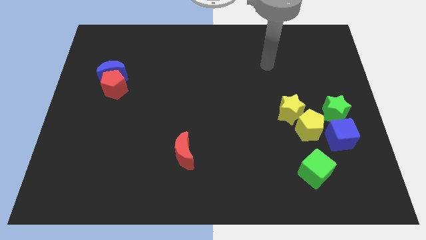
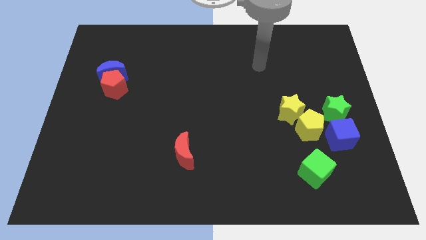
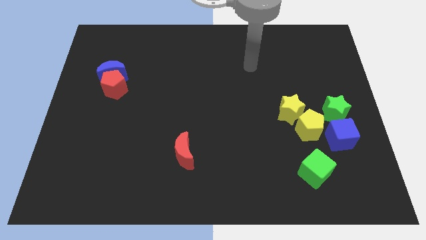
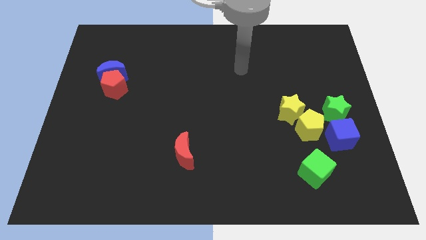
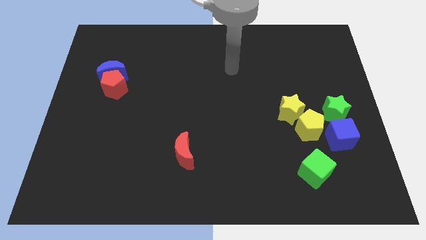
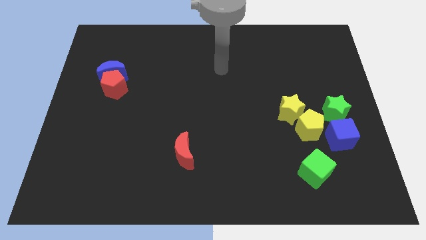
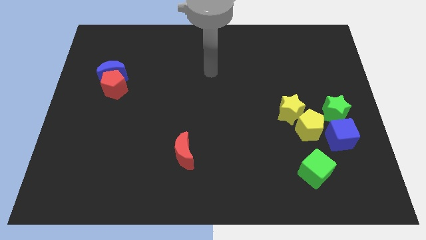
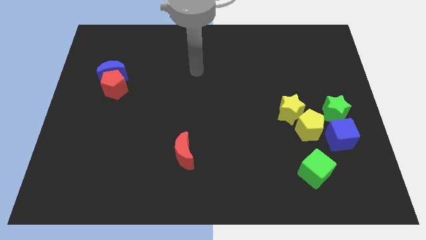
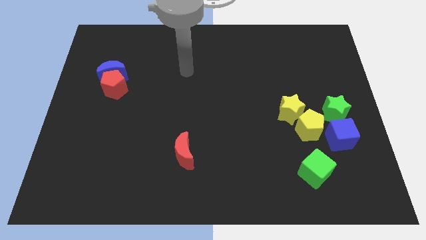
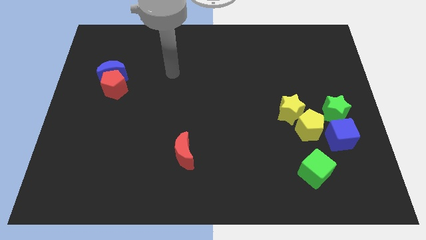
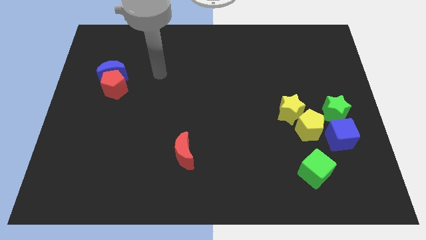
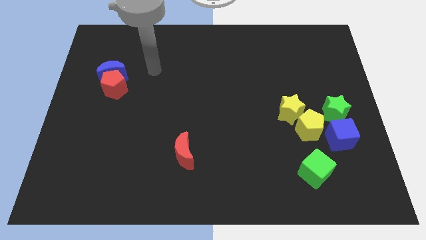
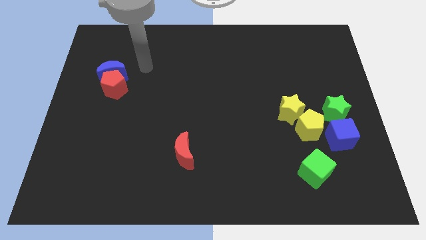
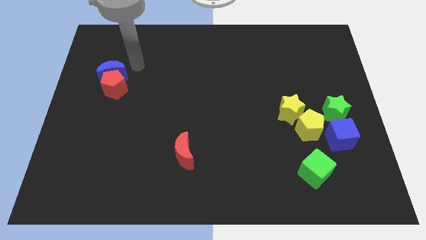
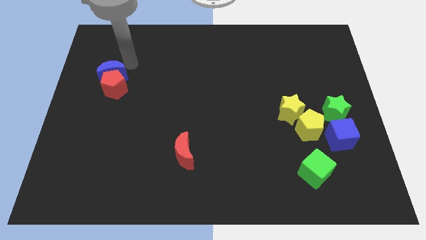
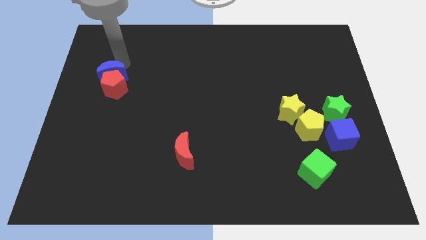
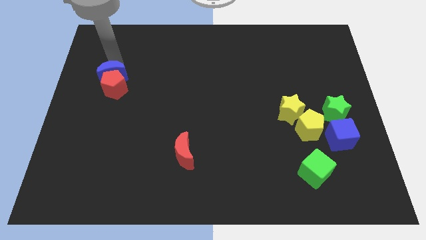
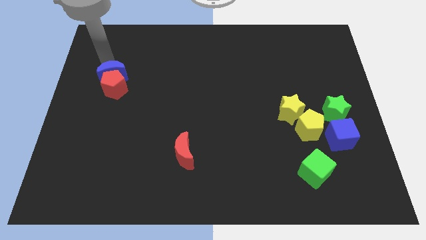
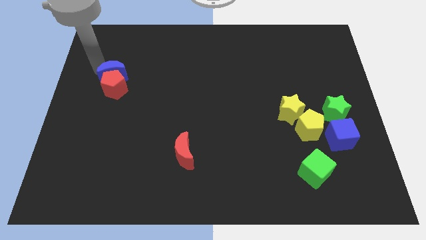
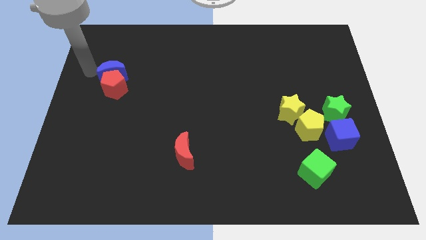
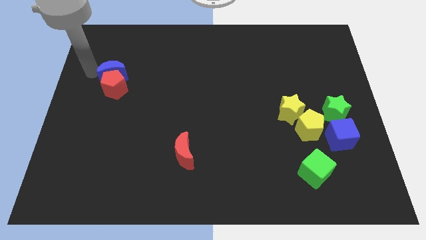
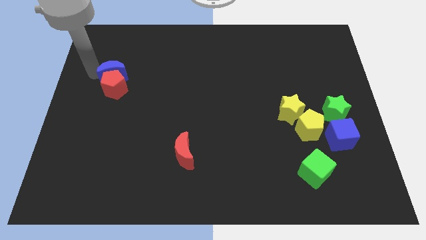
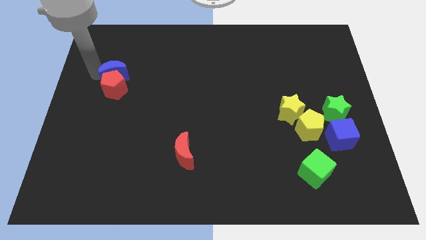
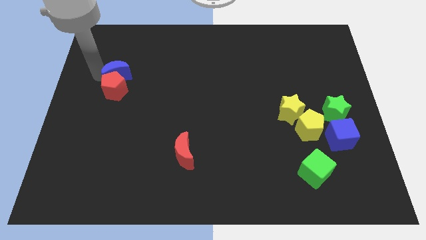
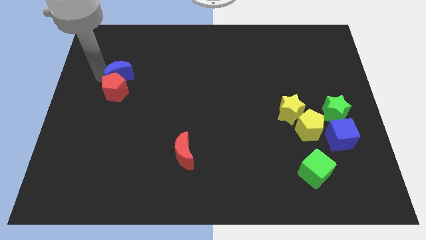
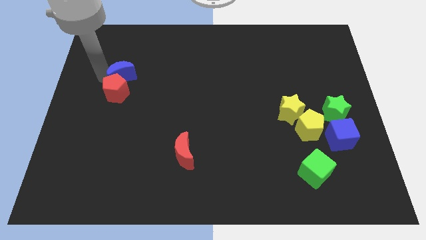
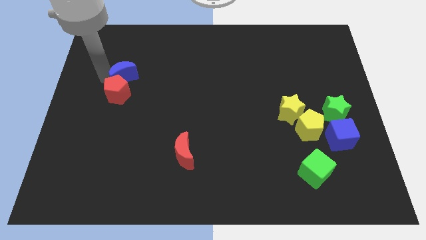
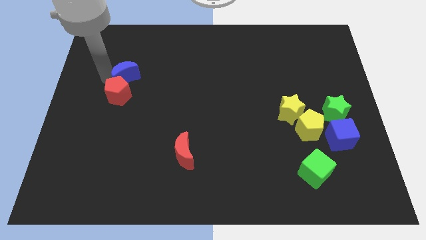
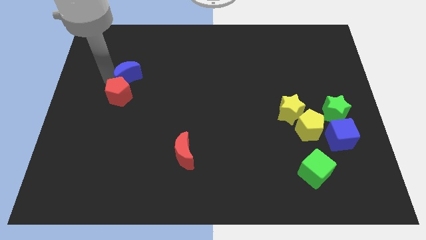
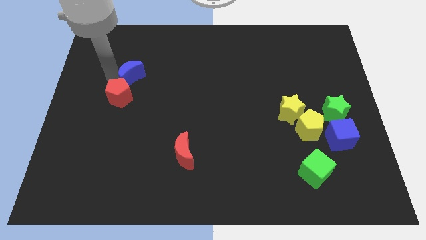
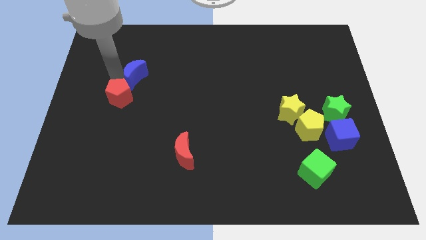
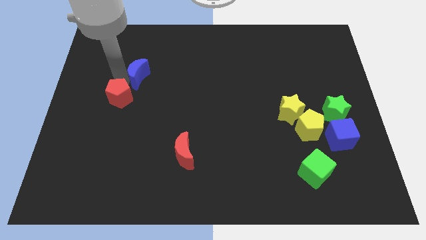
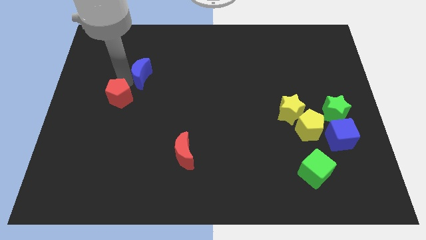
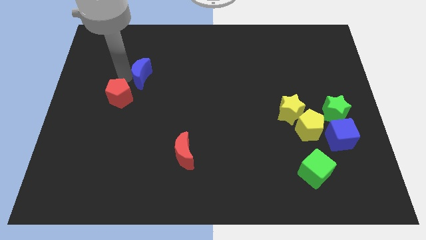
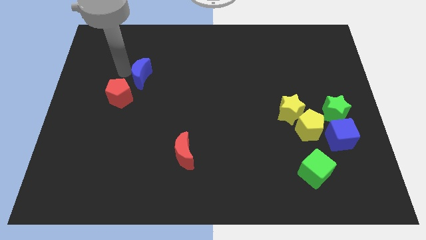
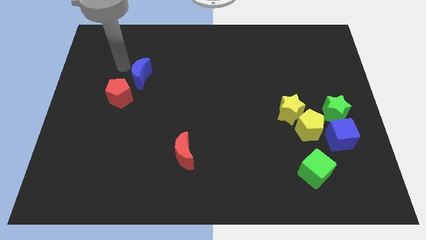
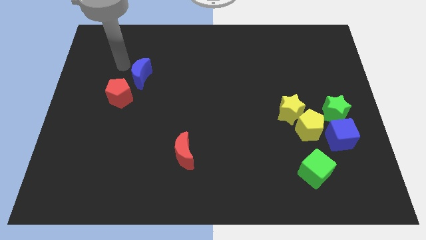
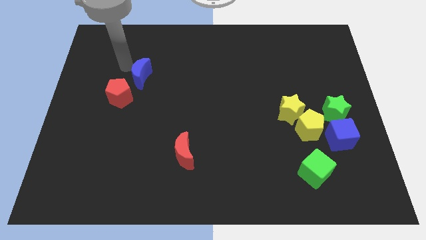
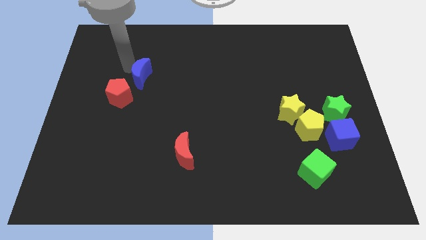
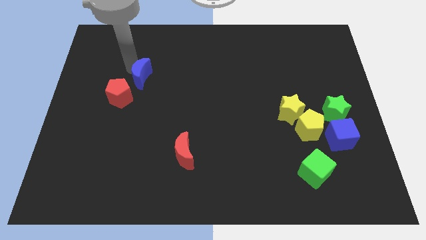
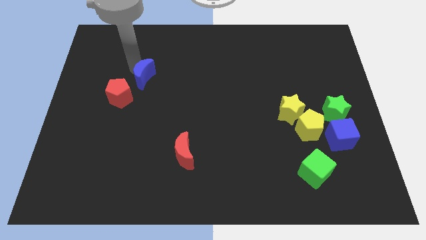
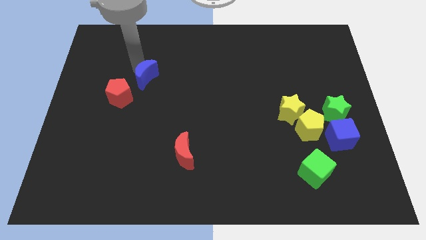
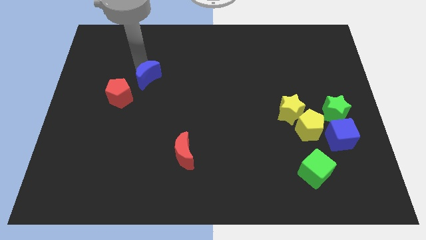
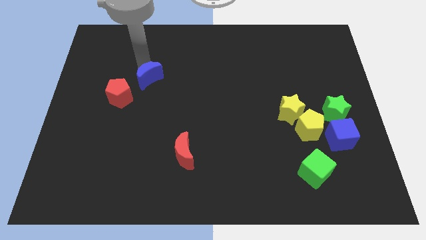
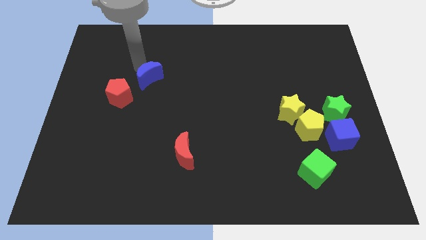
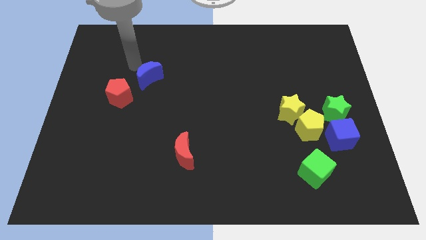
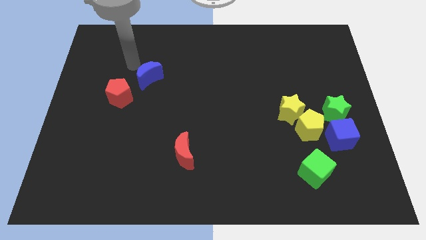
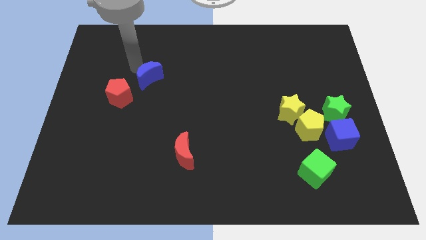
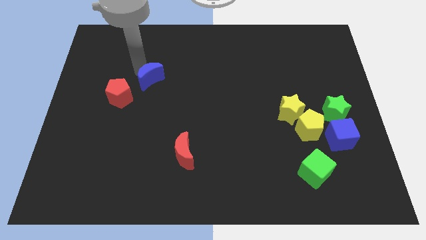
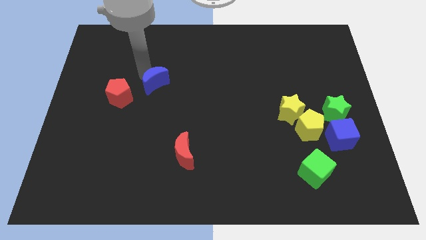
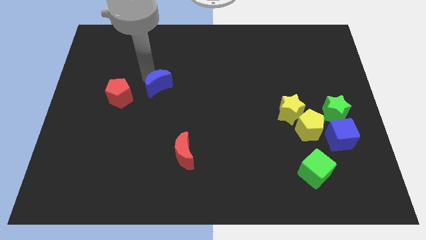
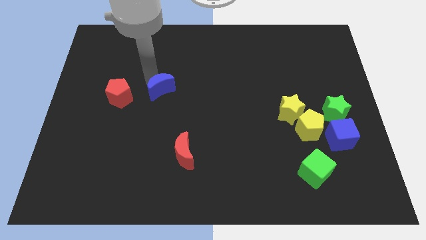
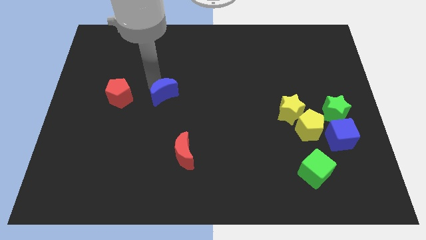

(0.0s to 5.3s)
push the blue moon to the middle of the board

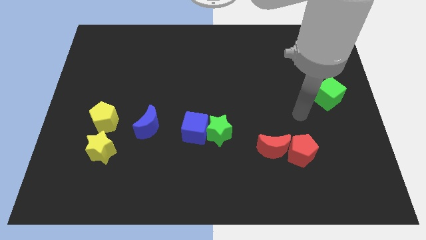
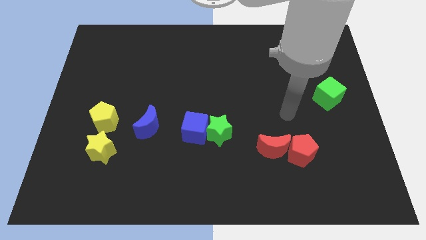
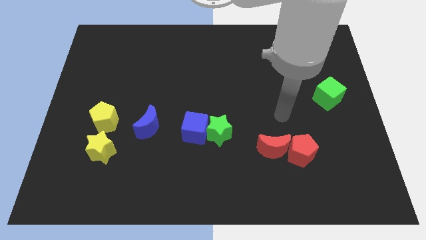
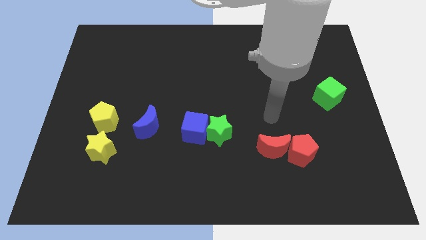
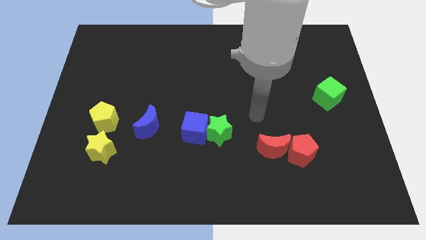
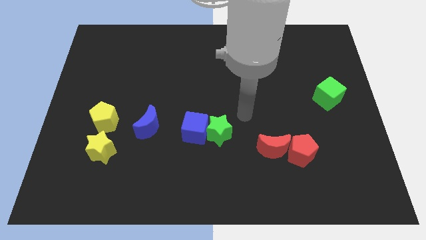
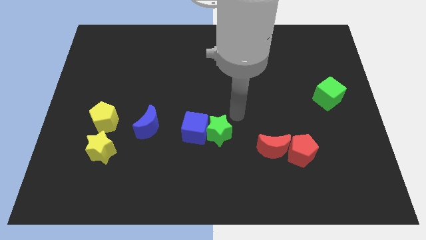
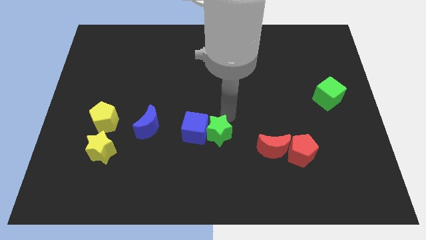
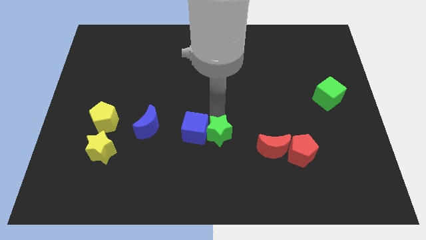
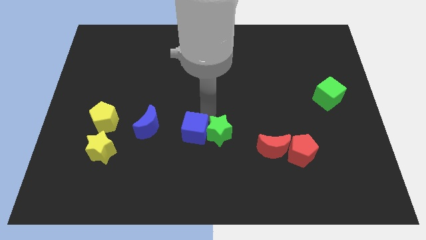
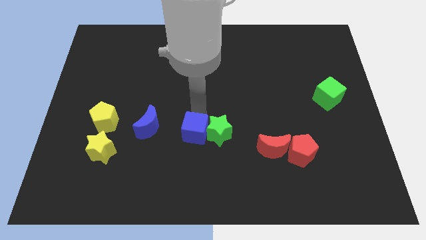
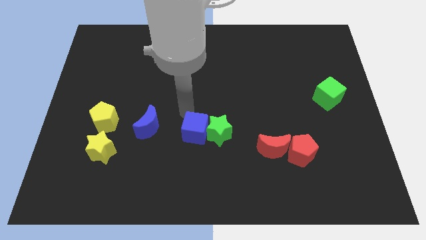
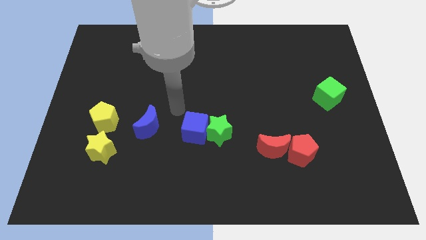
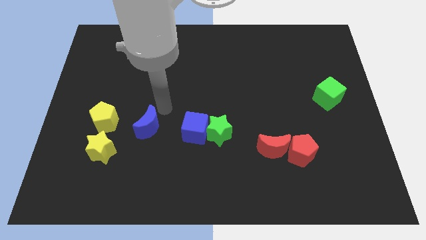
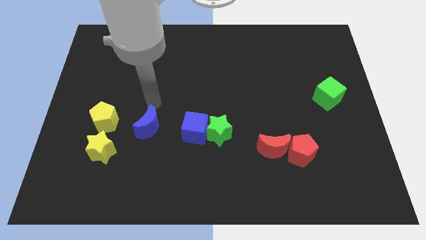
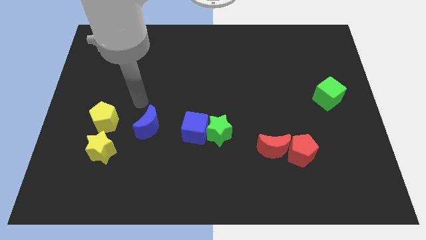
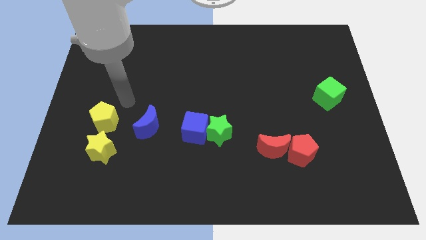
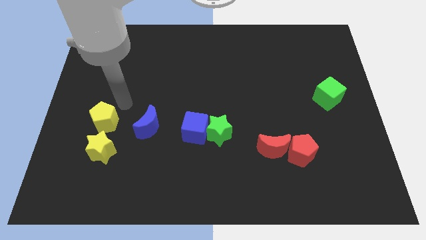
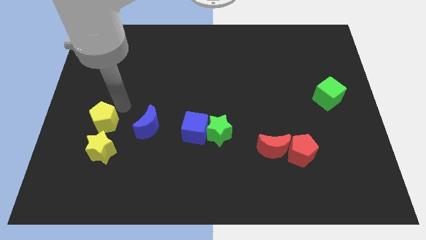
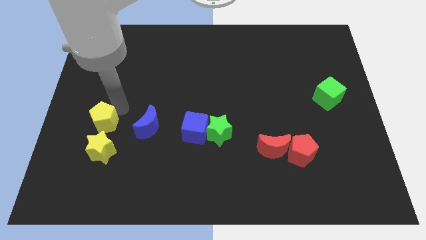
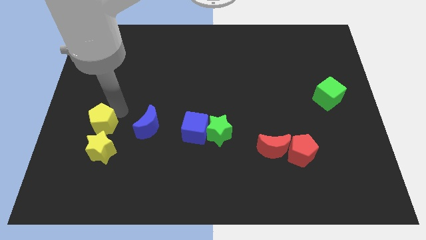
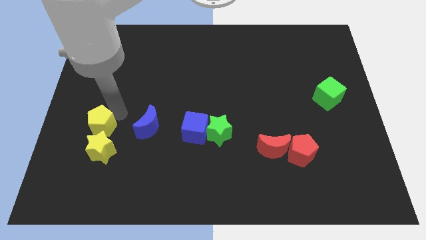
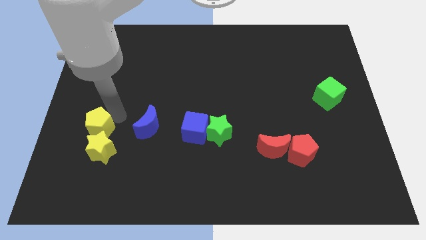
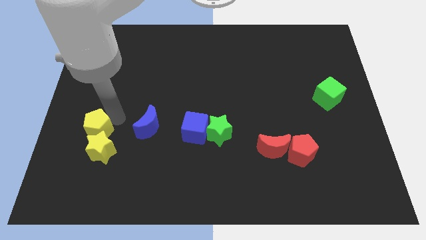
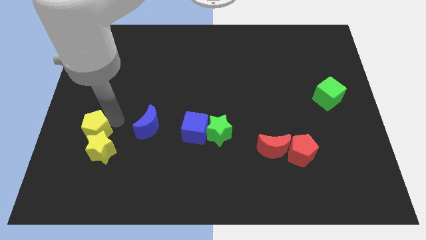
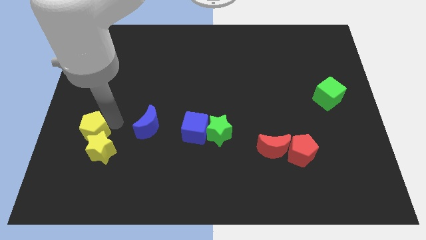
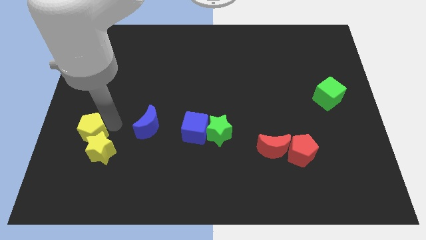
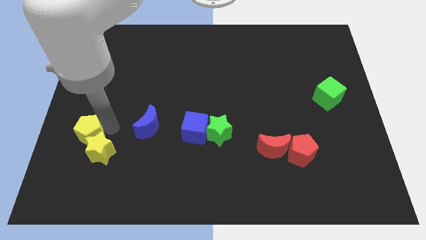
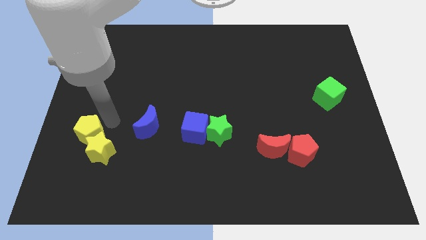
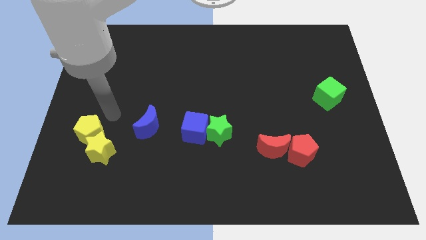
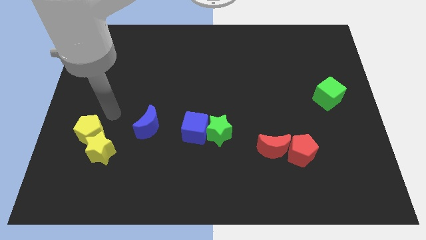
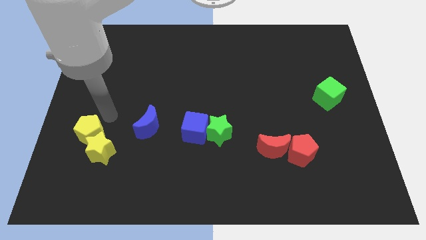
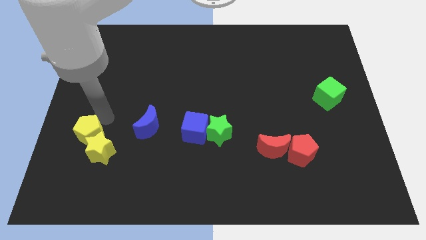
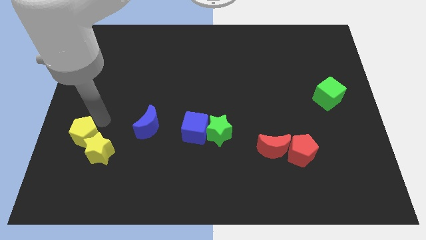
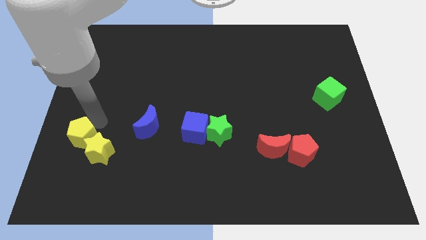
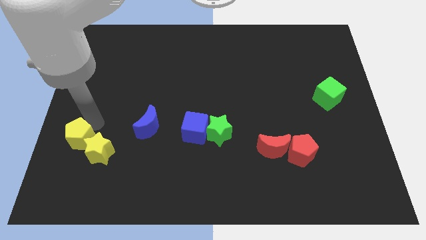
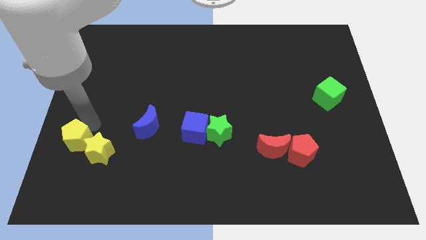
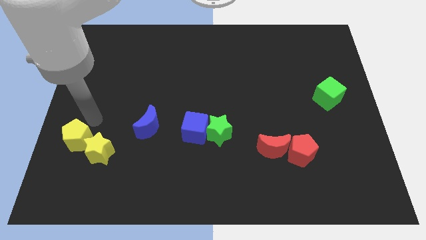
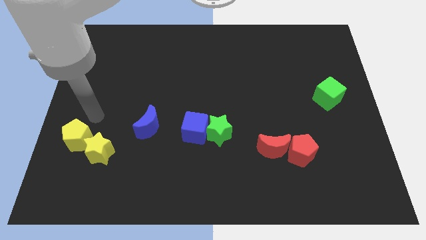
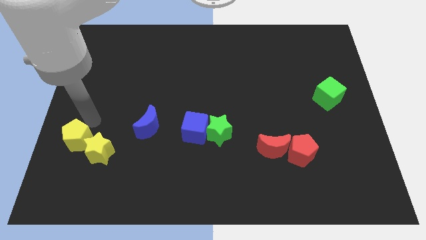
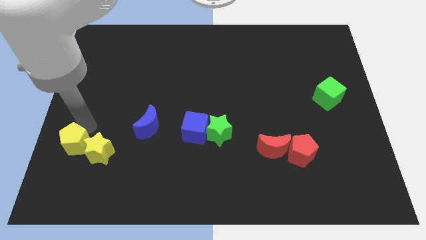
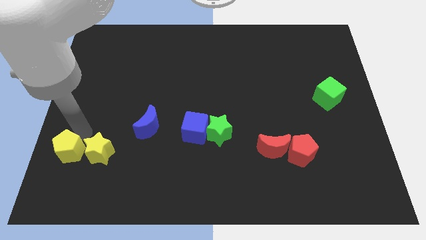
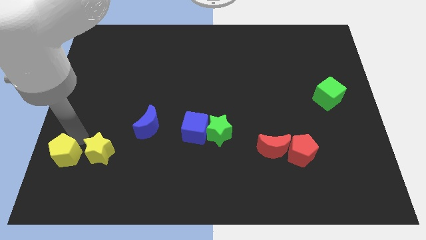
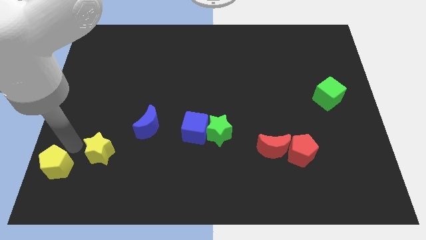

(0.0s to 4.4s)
move the yellow pentagon to the bottom left
